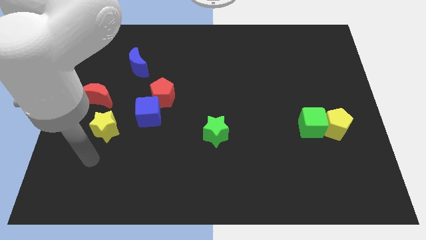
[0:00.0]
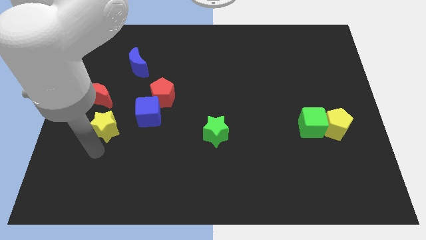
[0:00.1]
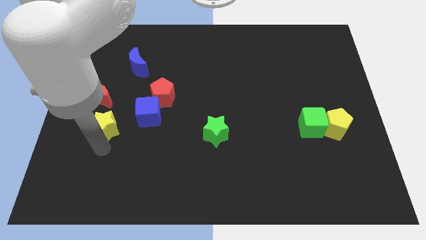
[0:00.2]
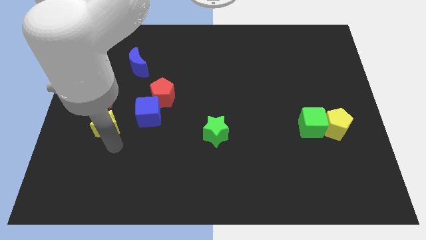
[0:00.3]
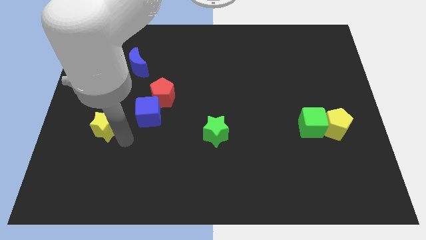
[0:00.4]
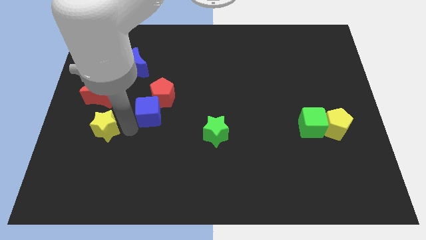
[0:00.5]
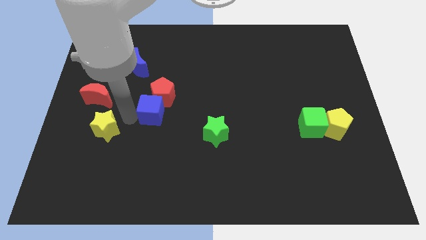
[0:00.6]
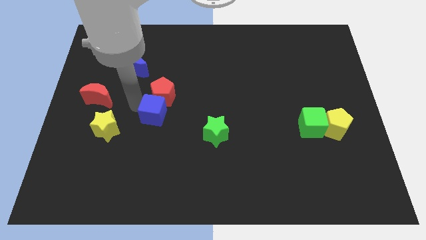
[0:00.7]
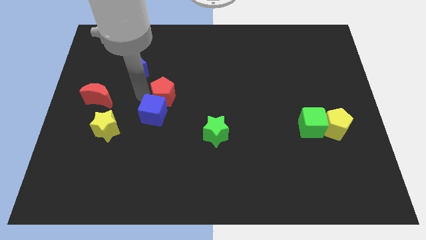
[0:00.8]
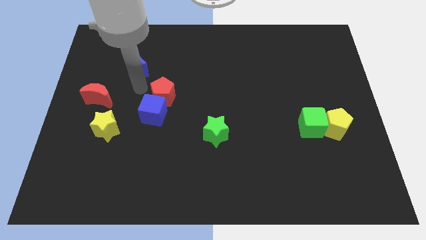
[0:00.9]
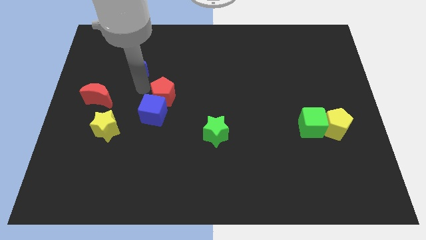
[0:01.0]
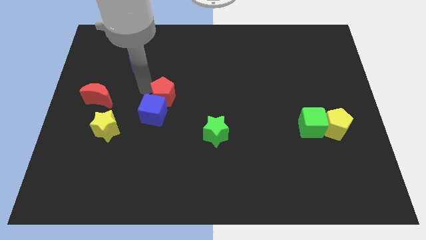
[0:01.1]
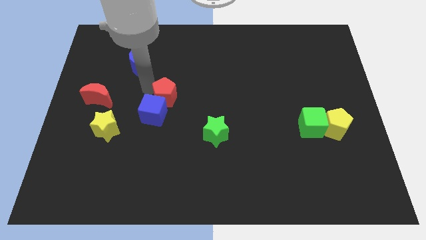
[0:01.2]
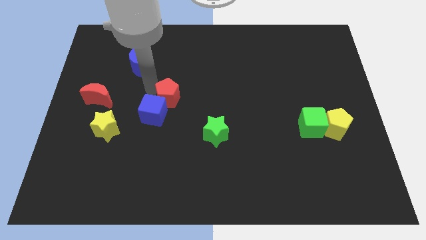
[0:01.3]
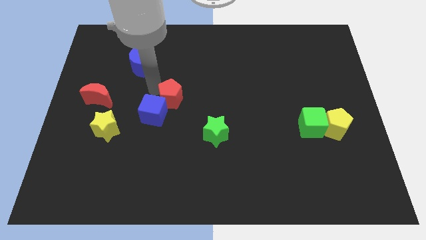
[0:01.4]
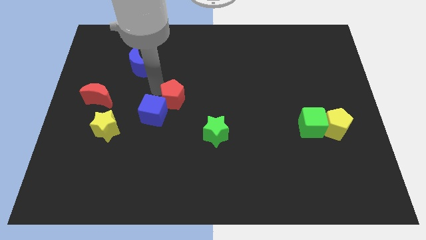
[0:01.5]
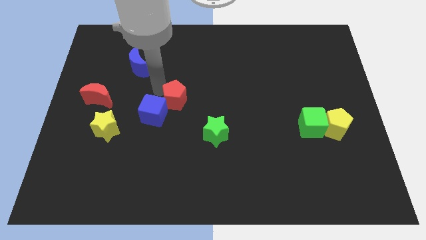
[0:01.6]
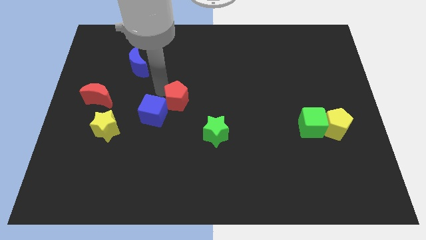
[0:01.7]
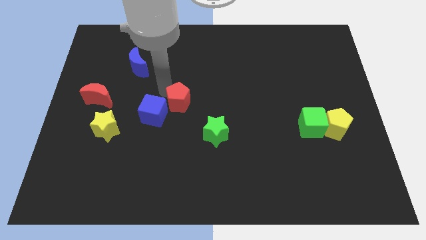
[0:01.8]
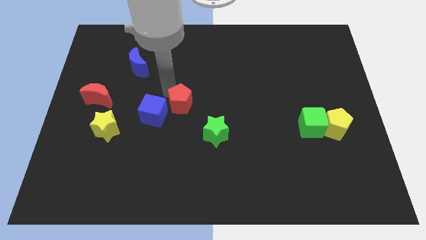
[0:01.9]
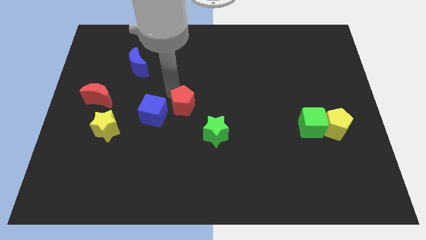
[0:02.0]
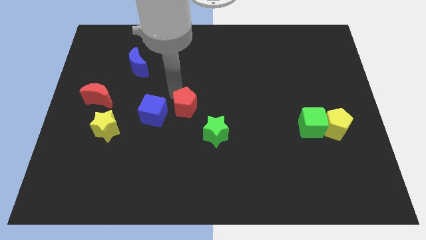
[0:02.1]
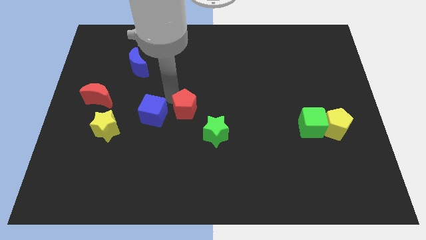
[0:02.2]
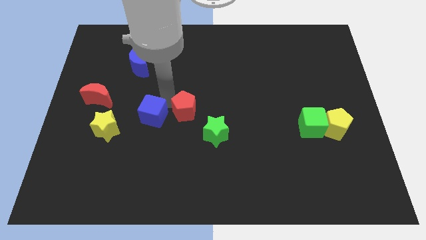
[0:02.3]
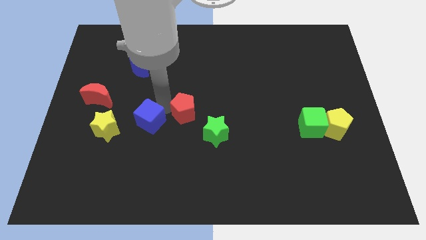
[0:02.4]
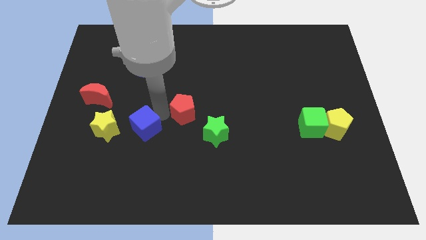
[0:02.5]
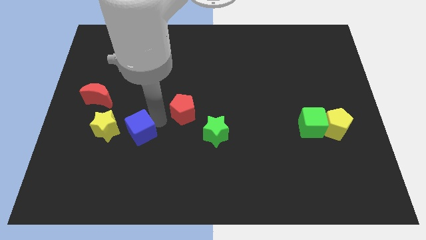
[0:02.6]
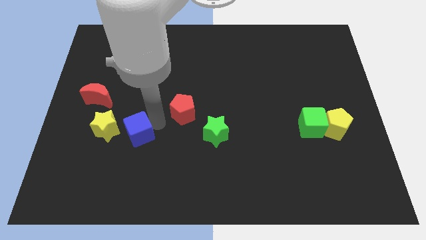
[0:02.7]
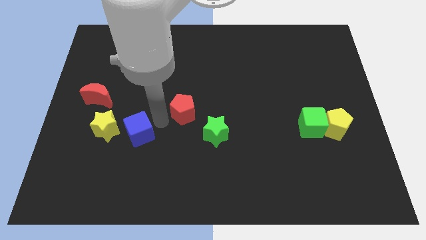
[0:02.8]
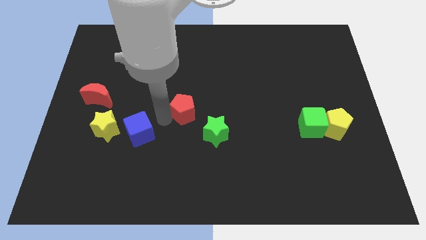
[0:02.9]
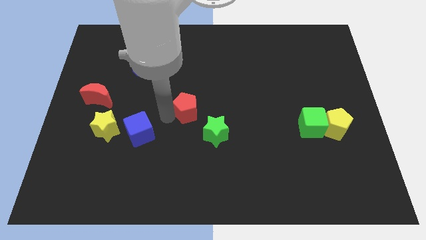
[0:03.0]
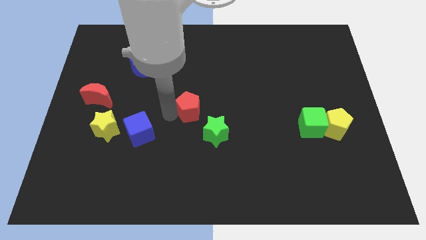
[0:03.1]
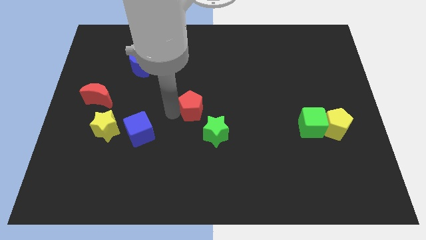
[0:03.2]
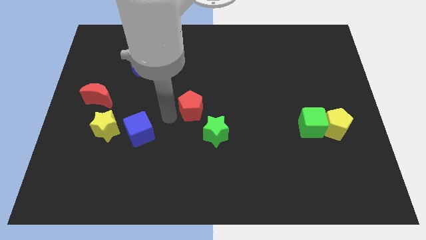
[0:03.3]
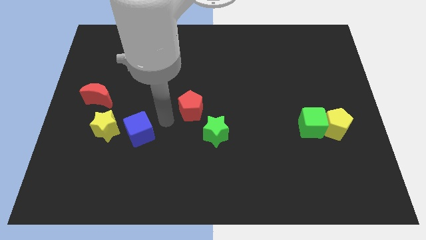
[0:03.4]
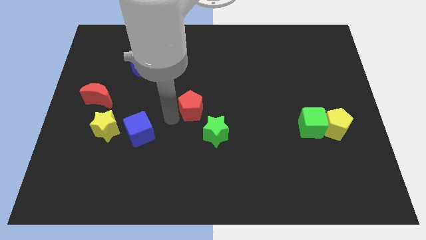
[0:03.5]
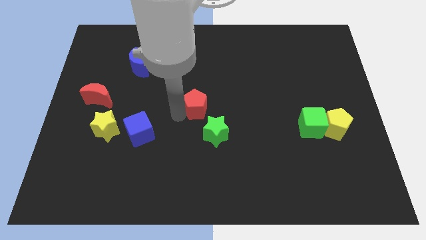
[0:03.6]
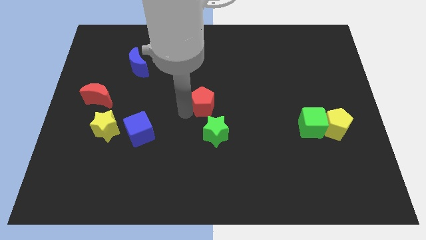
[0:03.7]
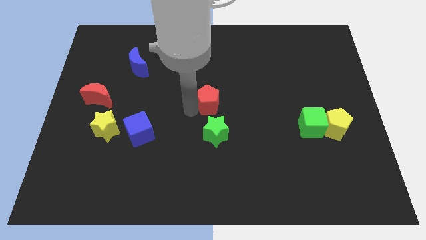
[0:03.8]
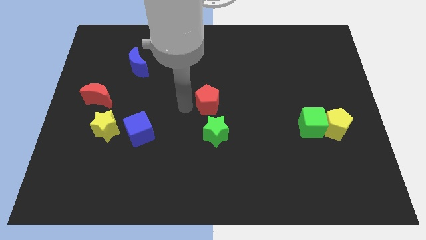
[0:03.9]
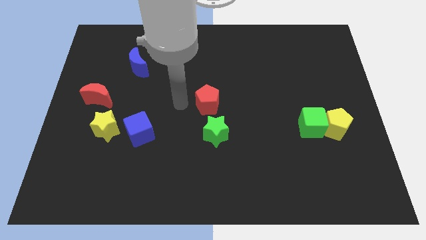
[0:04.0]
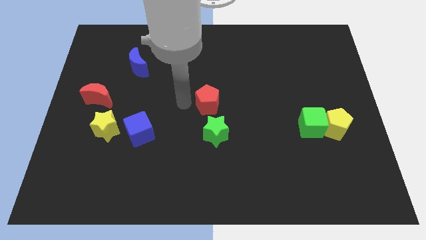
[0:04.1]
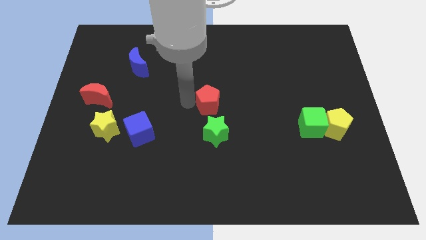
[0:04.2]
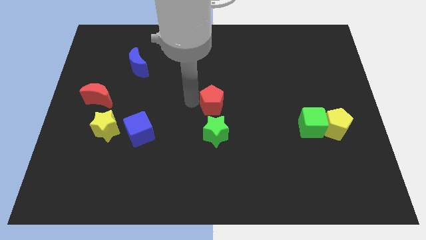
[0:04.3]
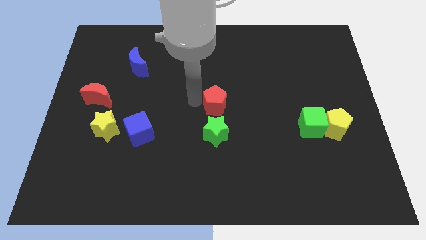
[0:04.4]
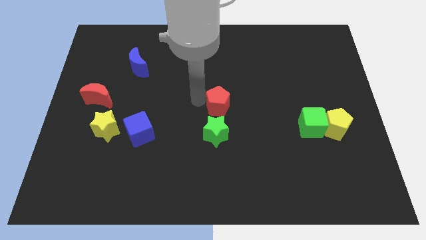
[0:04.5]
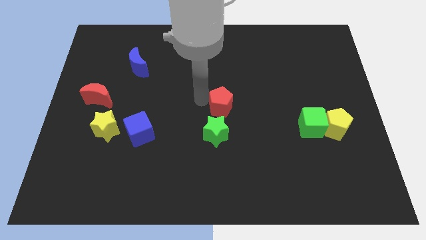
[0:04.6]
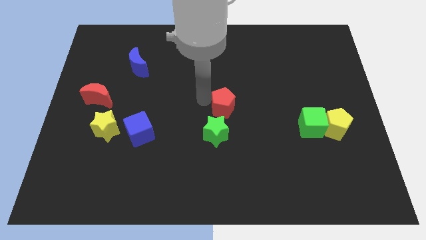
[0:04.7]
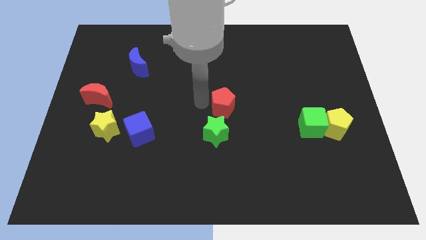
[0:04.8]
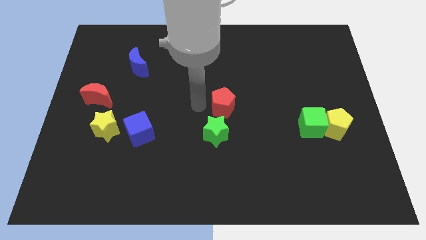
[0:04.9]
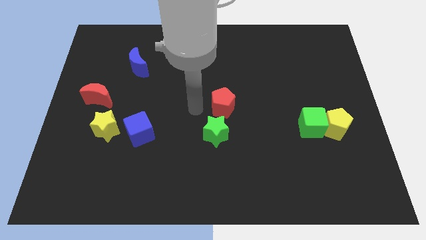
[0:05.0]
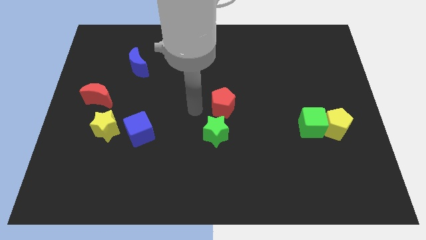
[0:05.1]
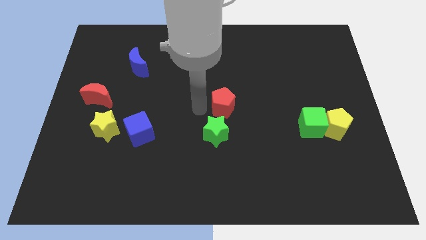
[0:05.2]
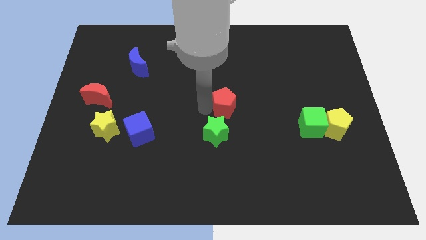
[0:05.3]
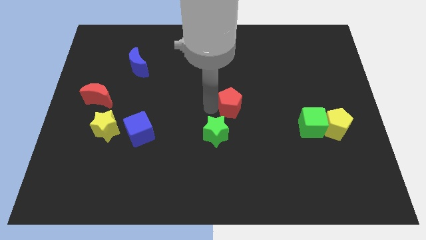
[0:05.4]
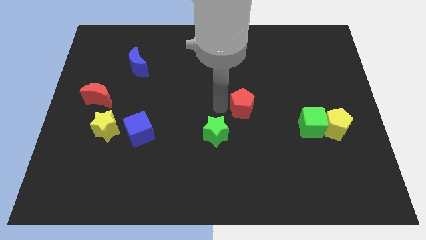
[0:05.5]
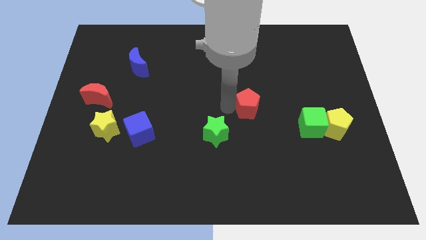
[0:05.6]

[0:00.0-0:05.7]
push the red pentagon to the right

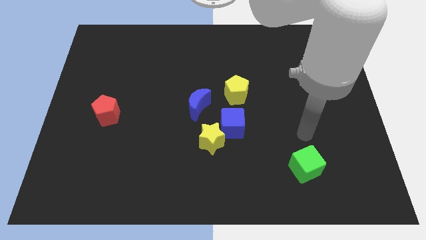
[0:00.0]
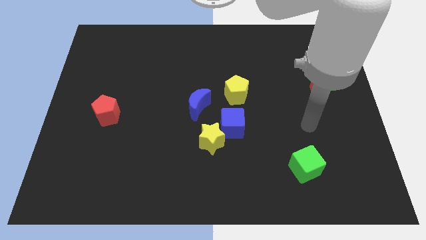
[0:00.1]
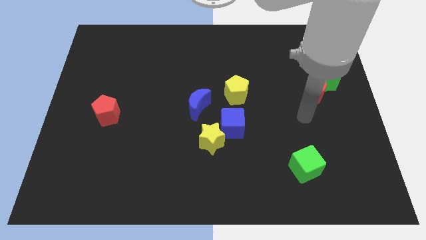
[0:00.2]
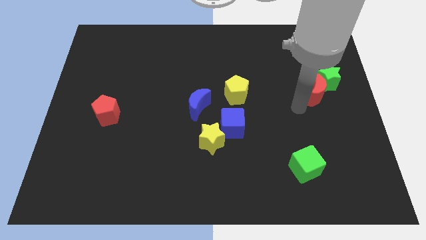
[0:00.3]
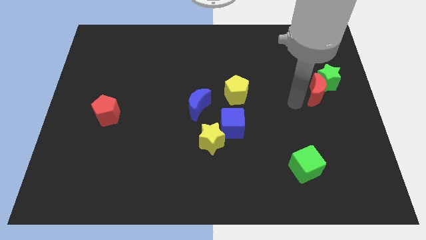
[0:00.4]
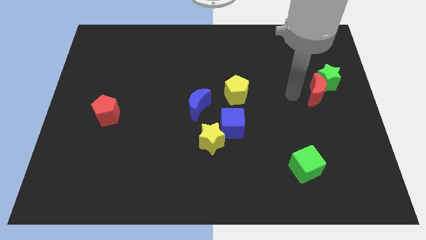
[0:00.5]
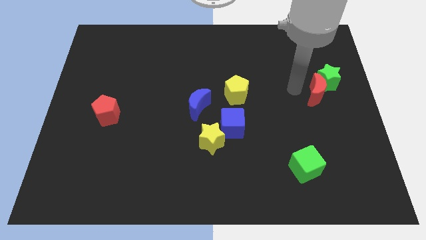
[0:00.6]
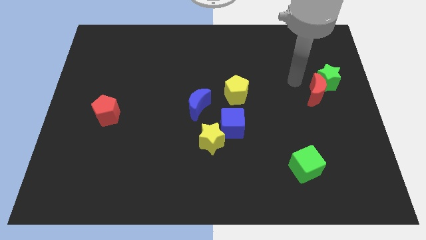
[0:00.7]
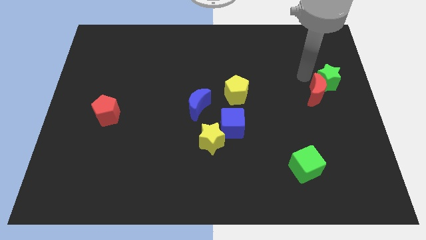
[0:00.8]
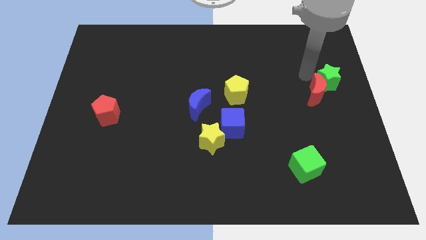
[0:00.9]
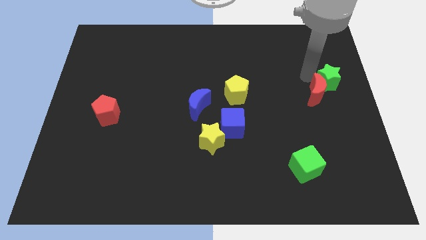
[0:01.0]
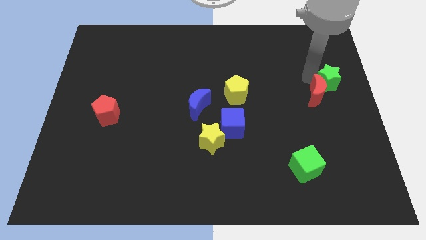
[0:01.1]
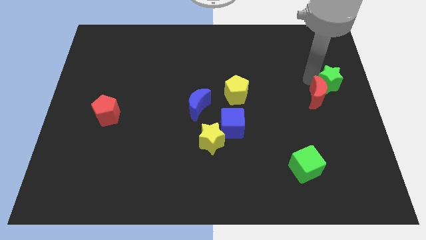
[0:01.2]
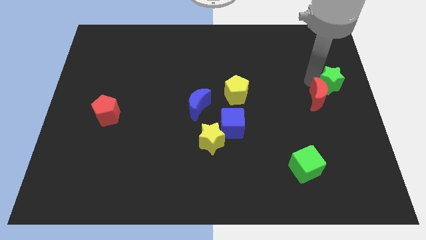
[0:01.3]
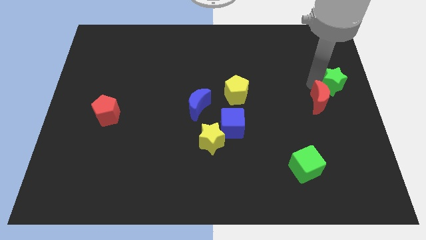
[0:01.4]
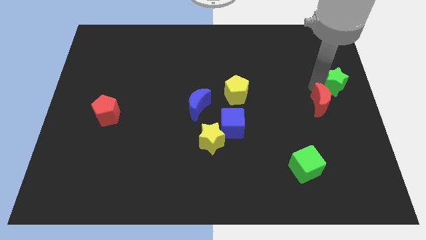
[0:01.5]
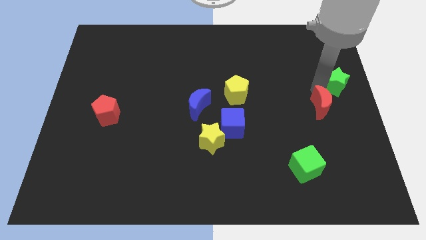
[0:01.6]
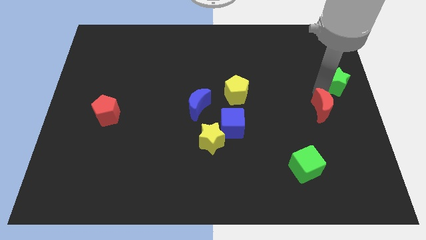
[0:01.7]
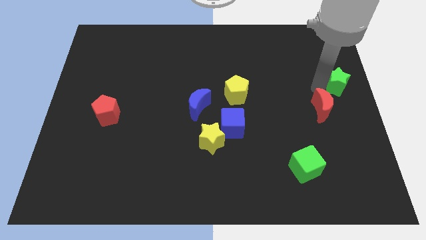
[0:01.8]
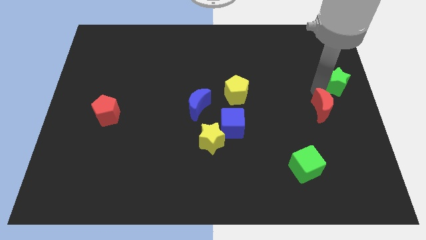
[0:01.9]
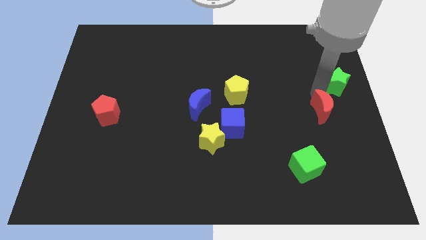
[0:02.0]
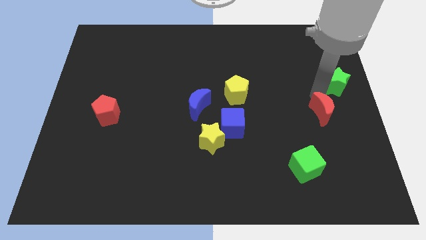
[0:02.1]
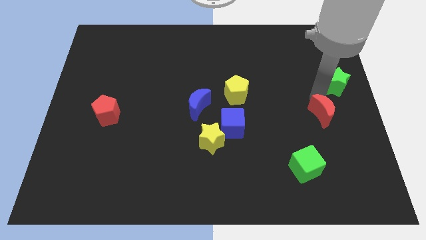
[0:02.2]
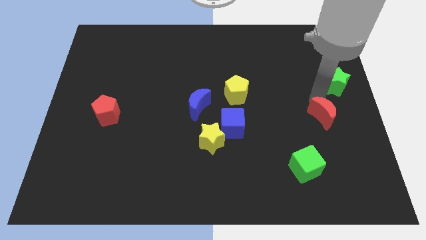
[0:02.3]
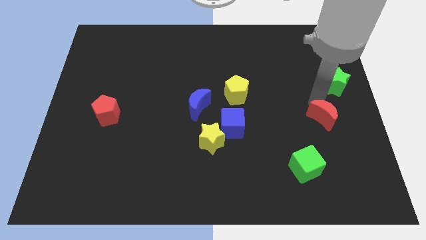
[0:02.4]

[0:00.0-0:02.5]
slide the red moon somewhat down
